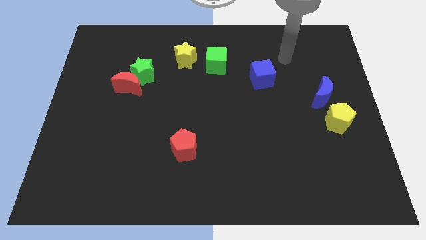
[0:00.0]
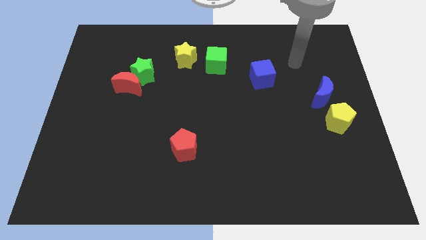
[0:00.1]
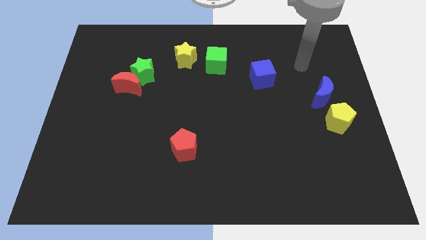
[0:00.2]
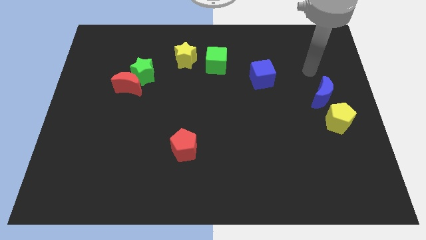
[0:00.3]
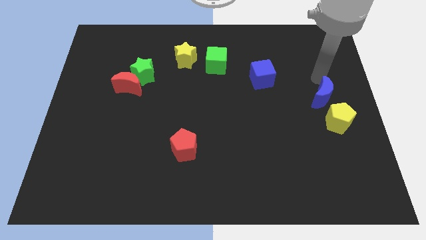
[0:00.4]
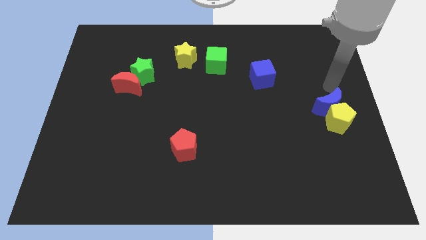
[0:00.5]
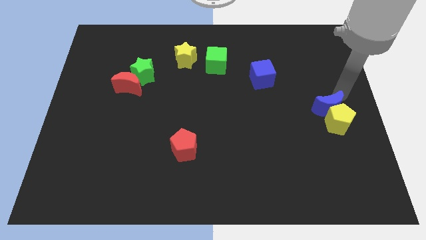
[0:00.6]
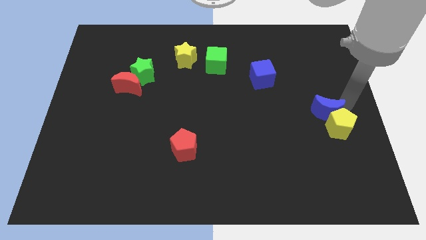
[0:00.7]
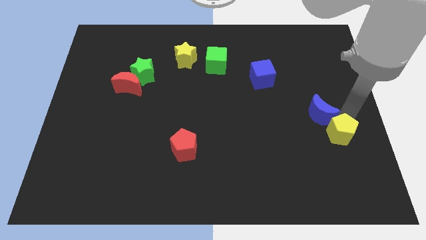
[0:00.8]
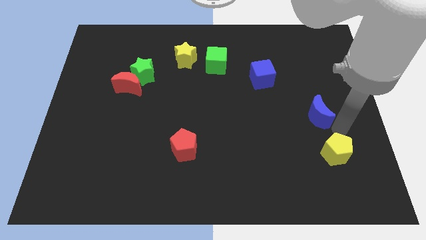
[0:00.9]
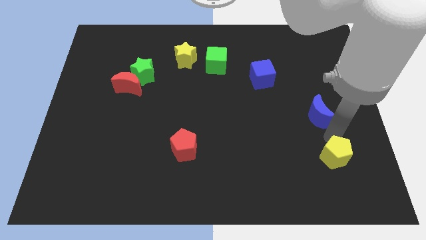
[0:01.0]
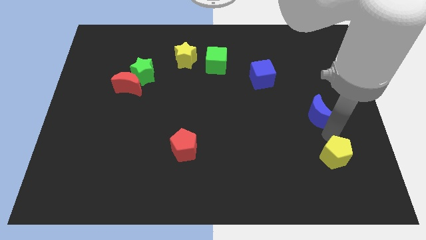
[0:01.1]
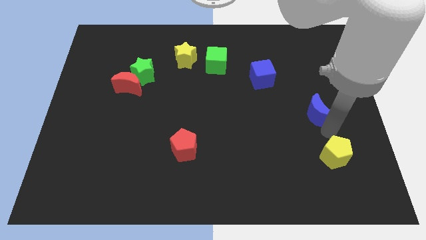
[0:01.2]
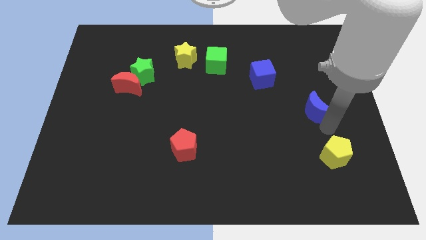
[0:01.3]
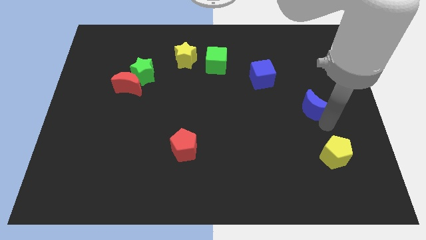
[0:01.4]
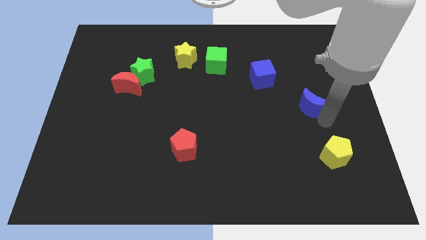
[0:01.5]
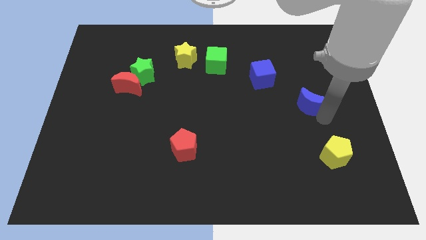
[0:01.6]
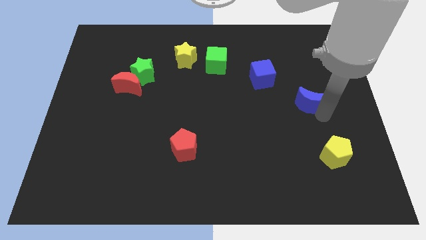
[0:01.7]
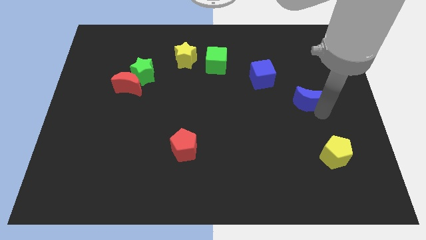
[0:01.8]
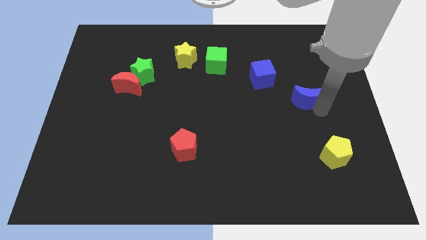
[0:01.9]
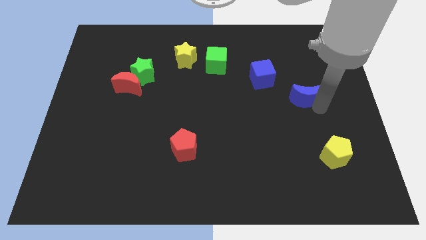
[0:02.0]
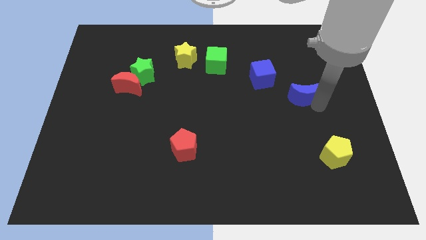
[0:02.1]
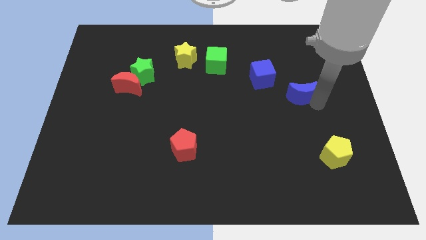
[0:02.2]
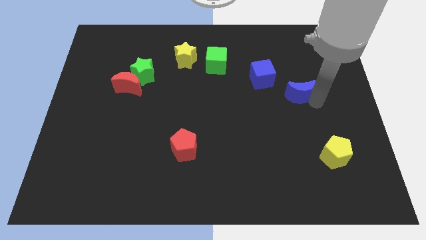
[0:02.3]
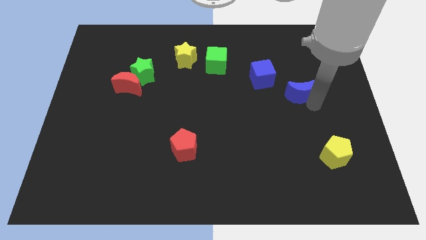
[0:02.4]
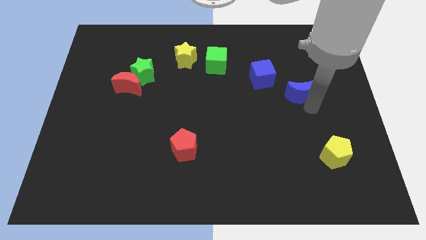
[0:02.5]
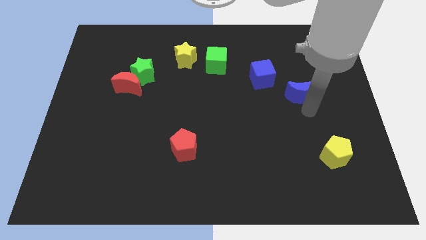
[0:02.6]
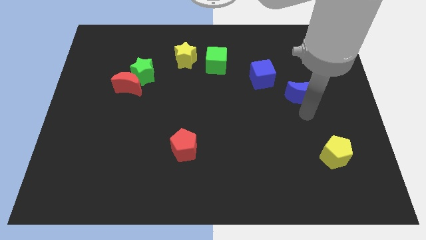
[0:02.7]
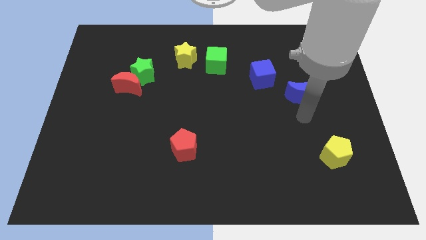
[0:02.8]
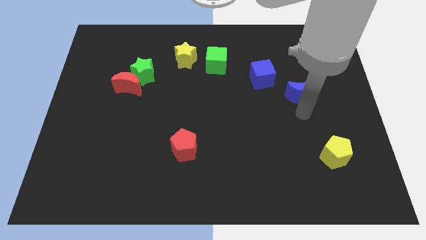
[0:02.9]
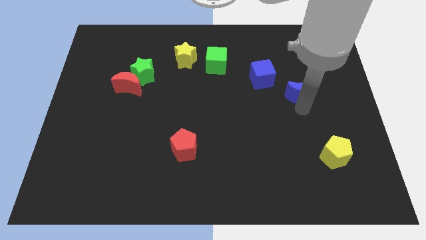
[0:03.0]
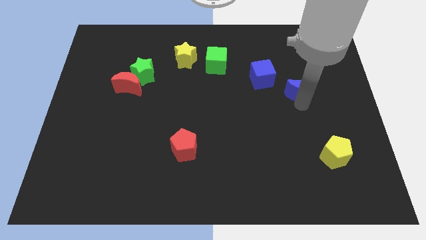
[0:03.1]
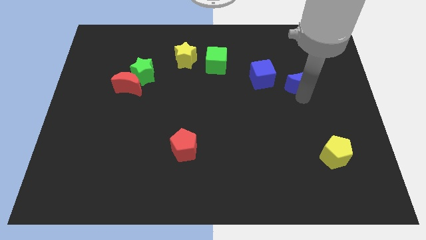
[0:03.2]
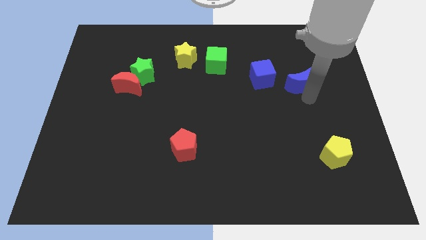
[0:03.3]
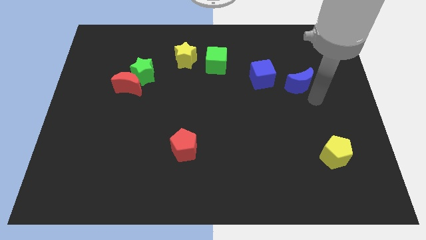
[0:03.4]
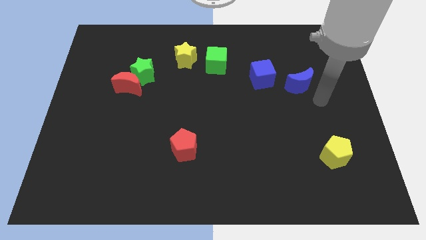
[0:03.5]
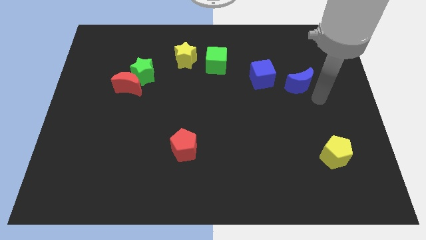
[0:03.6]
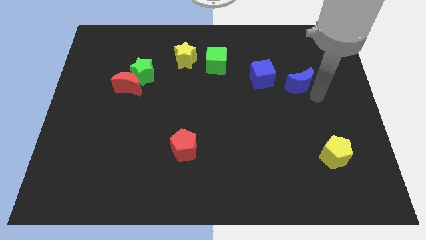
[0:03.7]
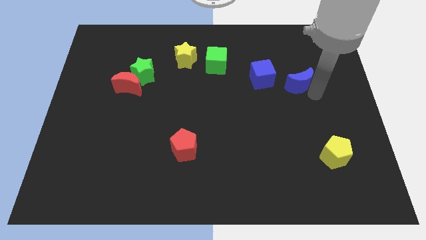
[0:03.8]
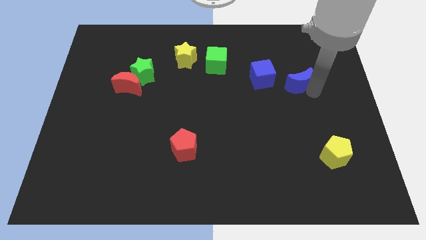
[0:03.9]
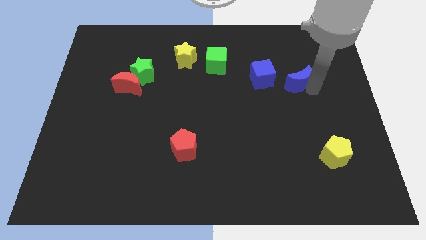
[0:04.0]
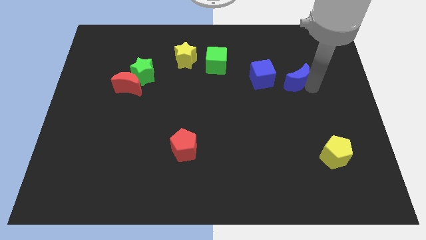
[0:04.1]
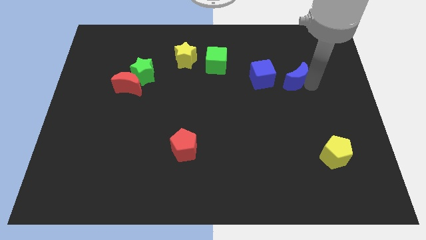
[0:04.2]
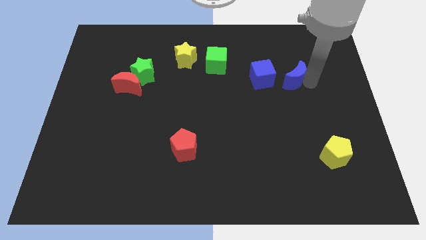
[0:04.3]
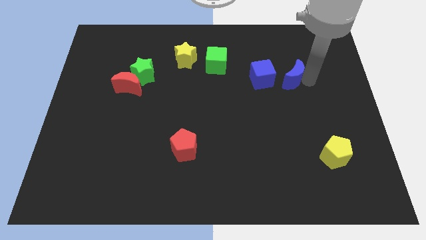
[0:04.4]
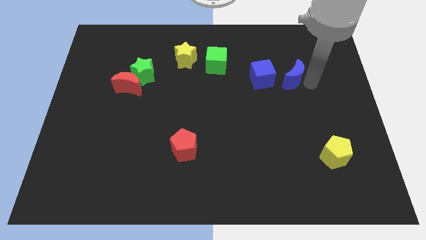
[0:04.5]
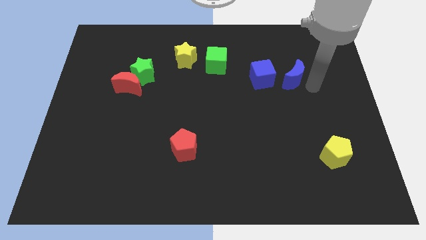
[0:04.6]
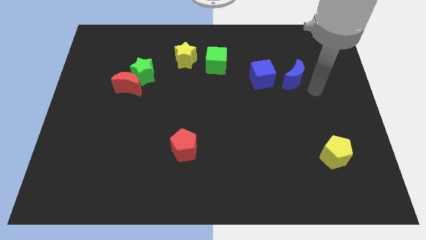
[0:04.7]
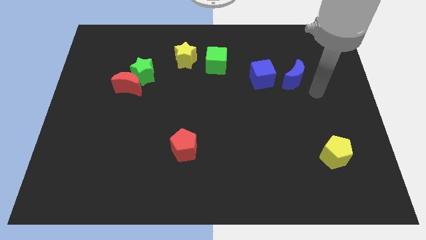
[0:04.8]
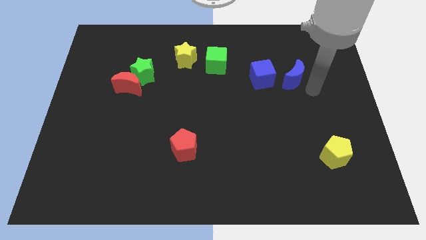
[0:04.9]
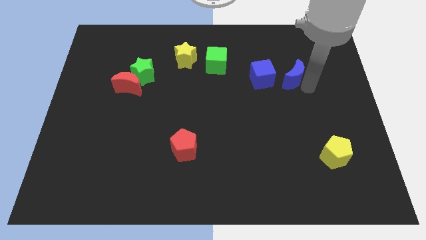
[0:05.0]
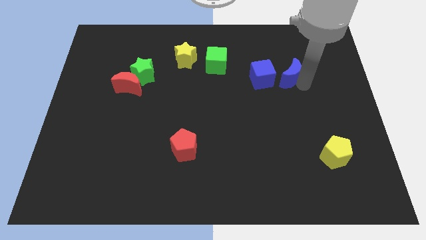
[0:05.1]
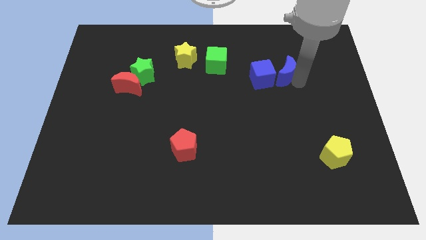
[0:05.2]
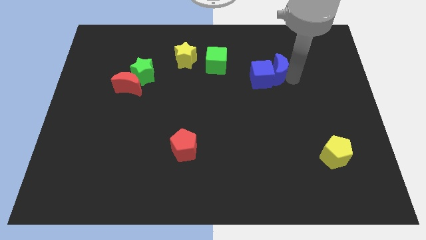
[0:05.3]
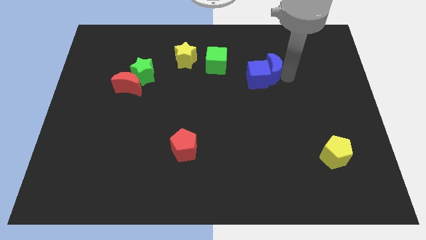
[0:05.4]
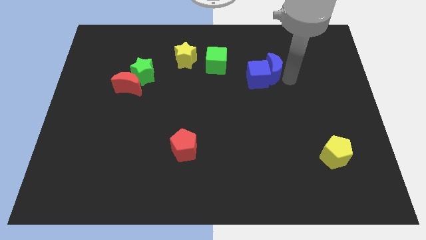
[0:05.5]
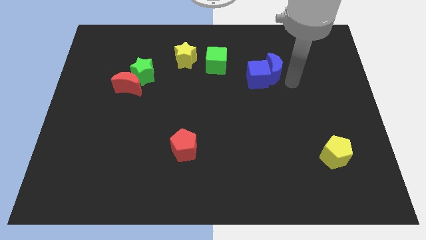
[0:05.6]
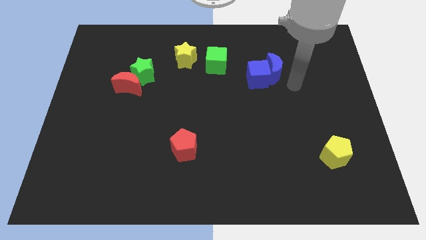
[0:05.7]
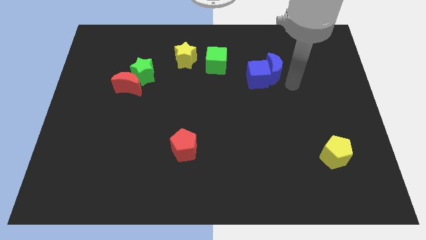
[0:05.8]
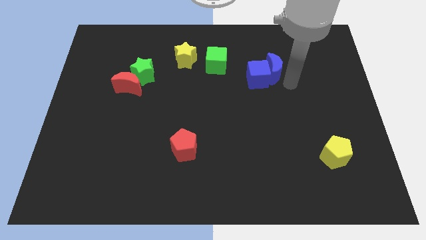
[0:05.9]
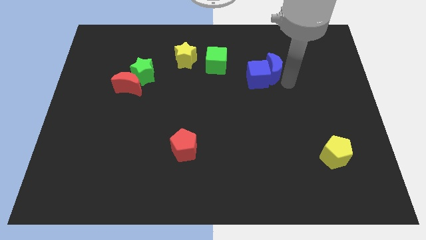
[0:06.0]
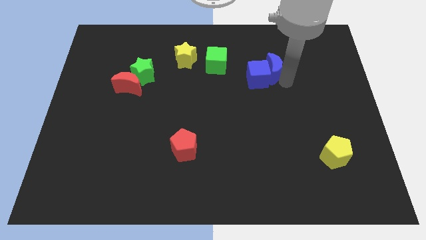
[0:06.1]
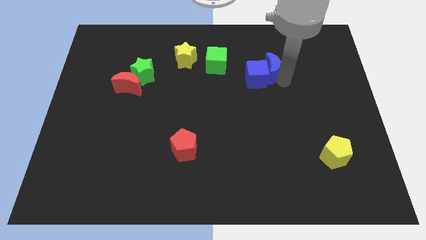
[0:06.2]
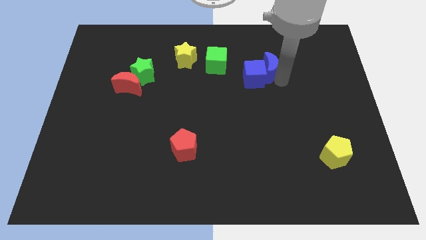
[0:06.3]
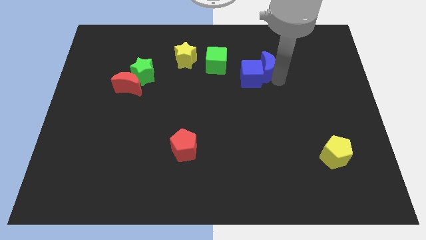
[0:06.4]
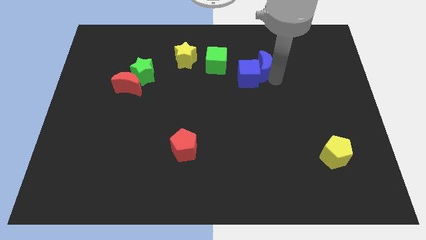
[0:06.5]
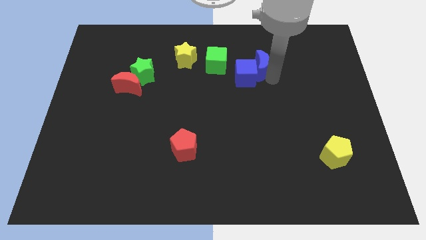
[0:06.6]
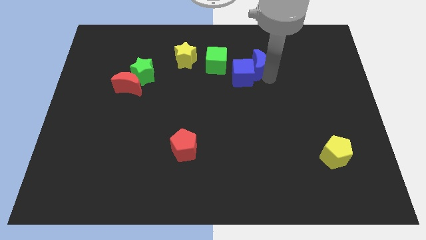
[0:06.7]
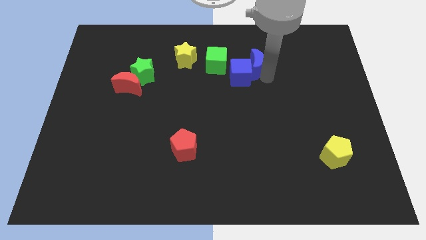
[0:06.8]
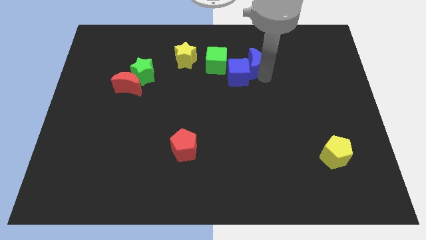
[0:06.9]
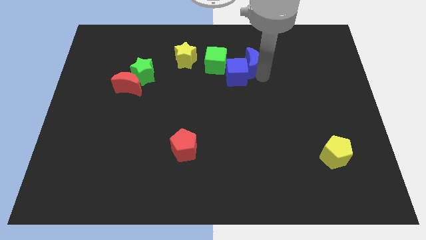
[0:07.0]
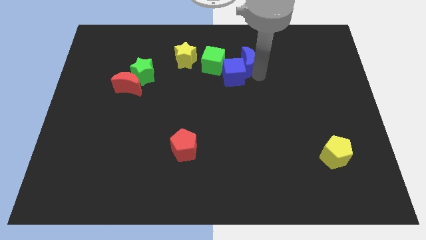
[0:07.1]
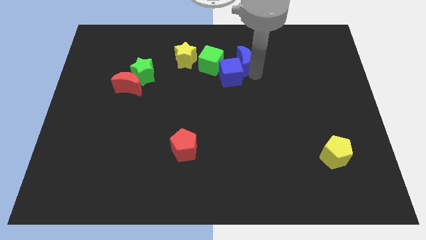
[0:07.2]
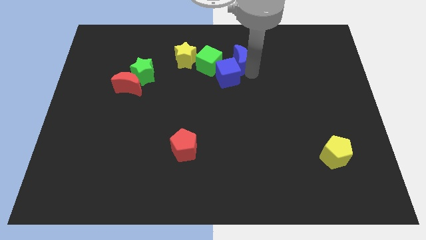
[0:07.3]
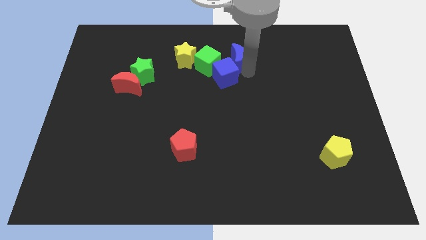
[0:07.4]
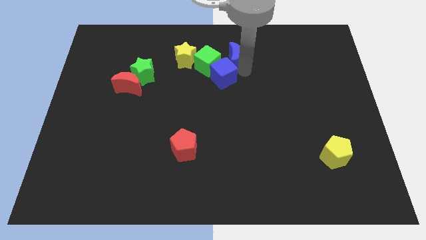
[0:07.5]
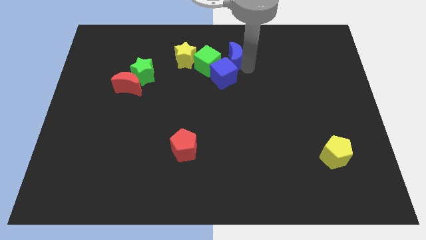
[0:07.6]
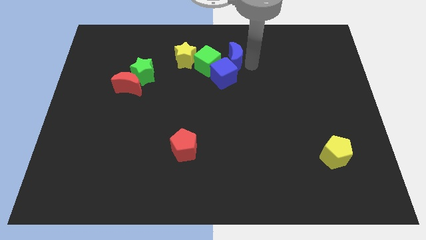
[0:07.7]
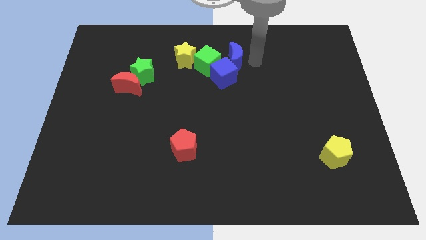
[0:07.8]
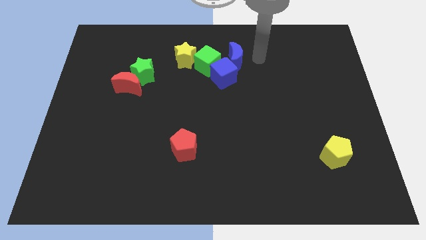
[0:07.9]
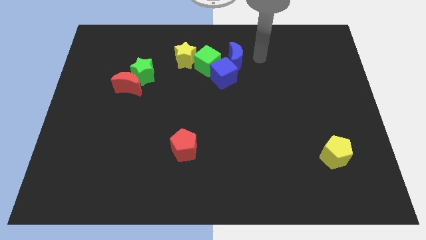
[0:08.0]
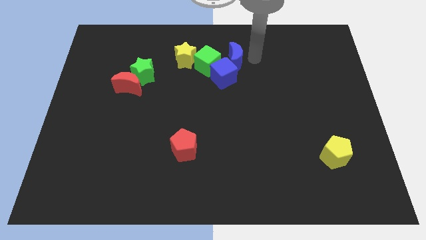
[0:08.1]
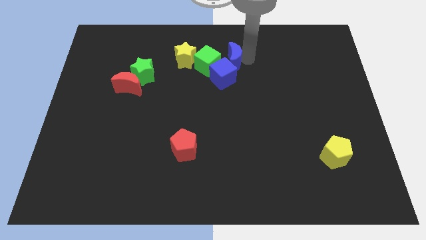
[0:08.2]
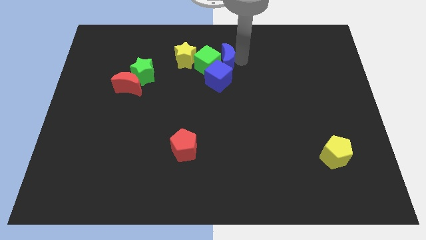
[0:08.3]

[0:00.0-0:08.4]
push the blue moon towards the green cube

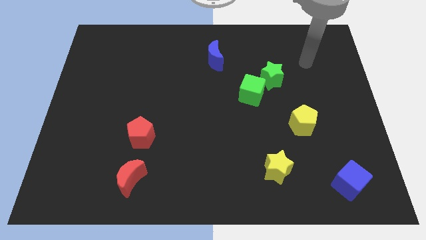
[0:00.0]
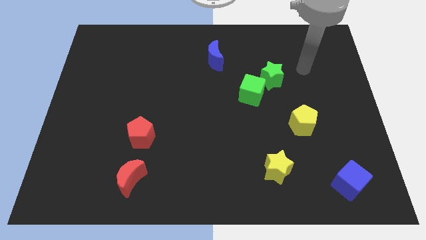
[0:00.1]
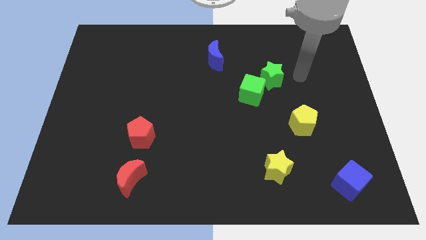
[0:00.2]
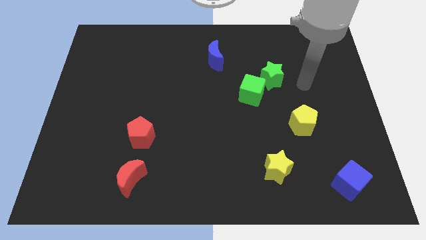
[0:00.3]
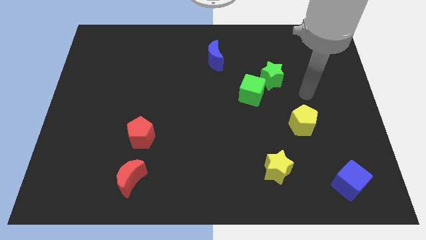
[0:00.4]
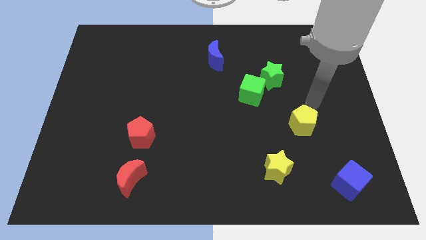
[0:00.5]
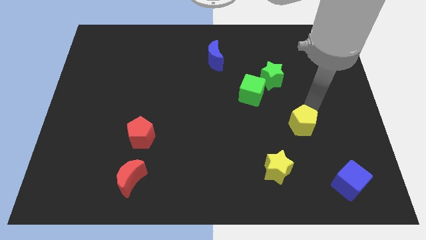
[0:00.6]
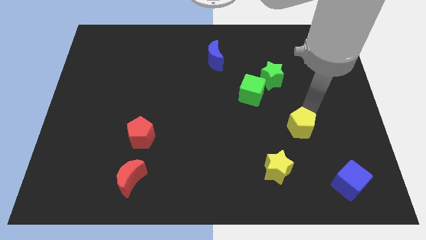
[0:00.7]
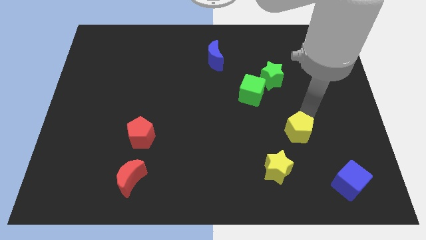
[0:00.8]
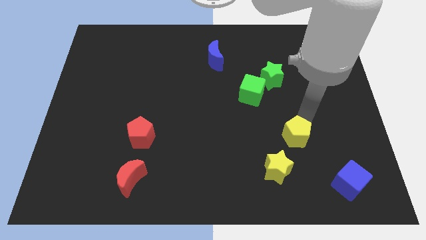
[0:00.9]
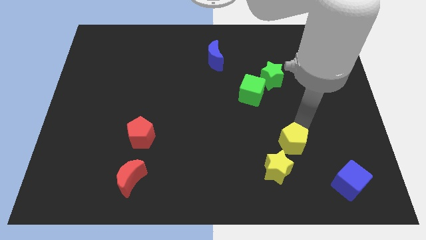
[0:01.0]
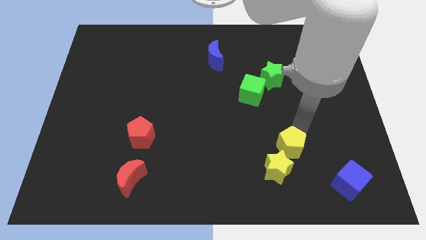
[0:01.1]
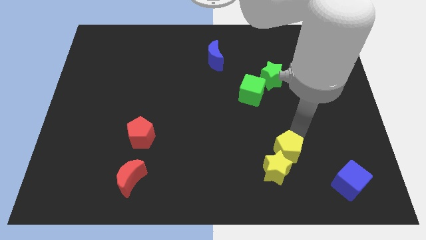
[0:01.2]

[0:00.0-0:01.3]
push the yellow pentagon next to the yellow star
